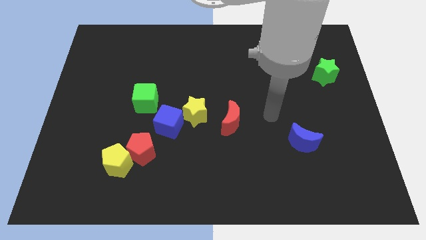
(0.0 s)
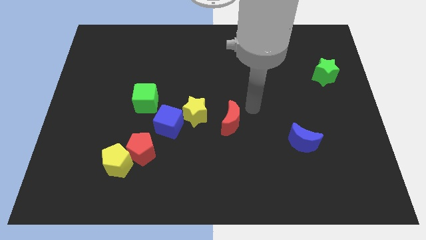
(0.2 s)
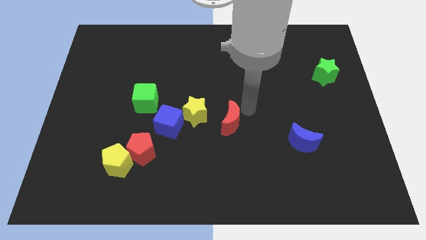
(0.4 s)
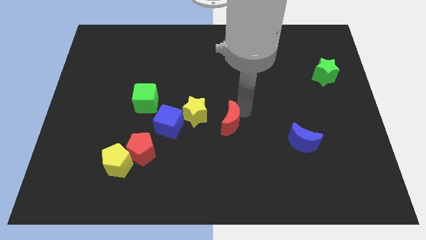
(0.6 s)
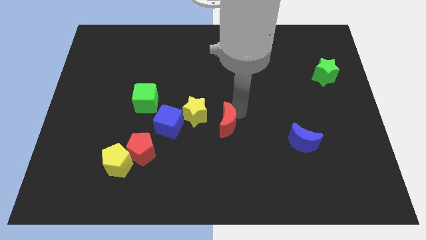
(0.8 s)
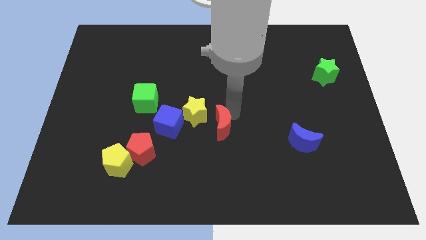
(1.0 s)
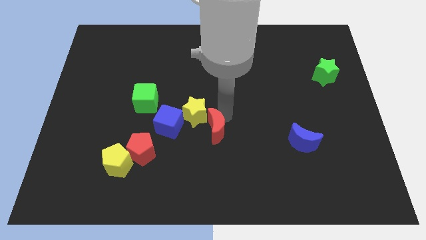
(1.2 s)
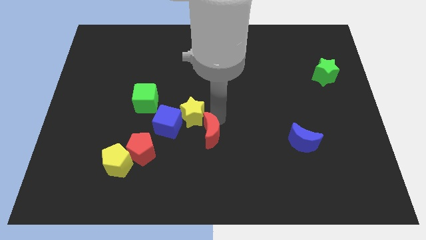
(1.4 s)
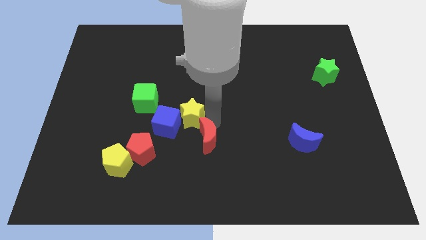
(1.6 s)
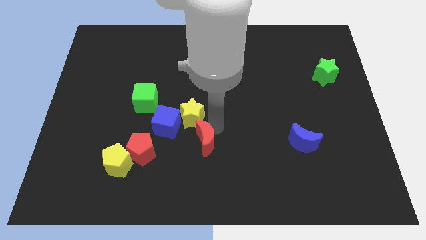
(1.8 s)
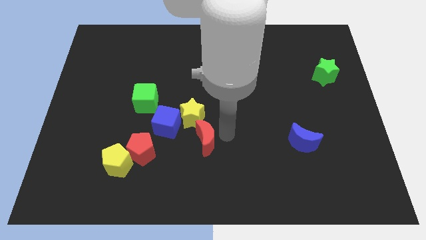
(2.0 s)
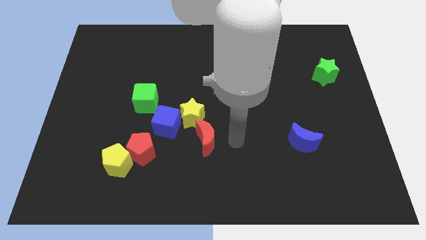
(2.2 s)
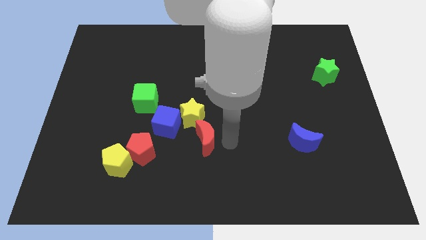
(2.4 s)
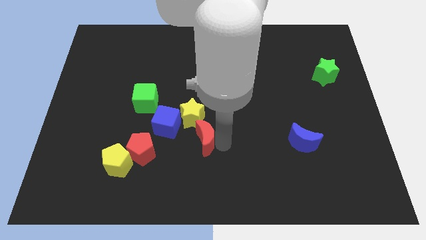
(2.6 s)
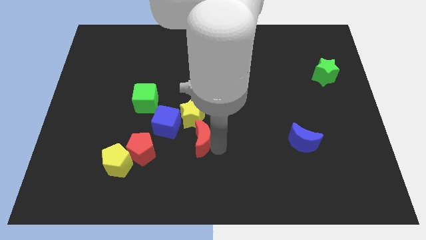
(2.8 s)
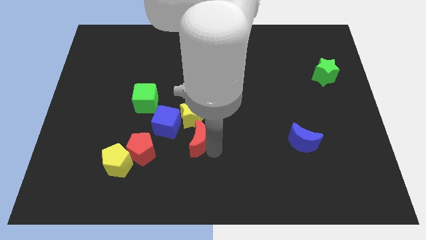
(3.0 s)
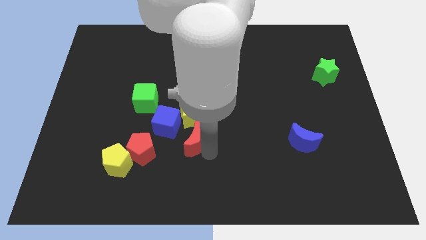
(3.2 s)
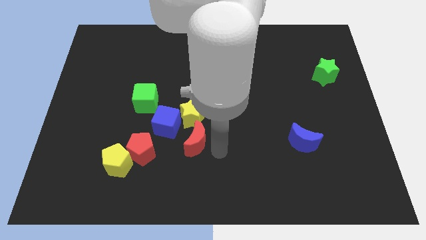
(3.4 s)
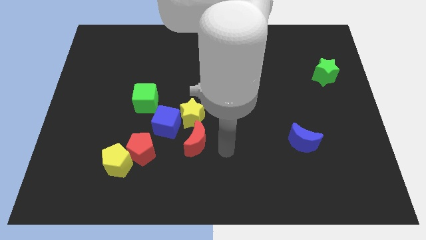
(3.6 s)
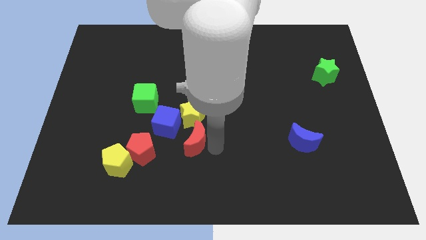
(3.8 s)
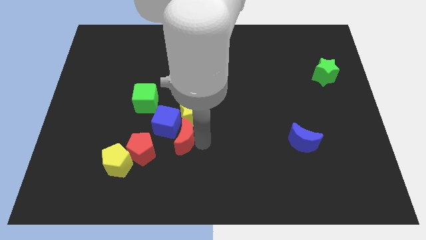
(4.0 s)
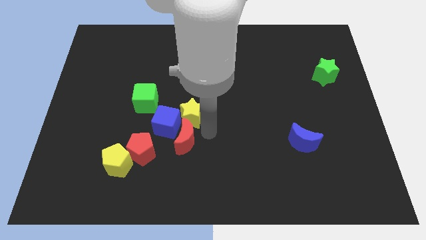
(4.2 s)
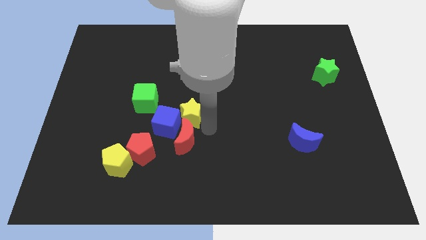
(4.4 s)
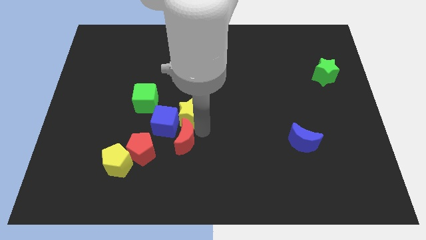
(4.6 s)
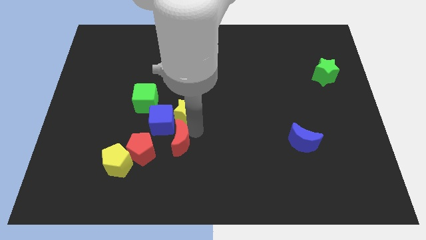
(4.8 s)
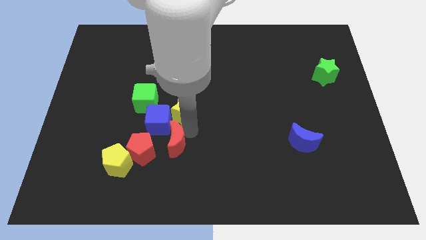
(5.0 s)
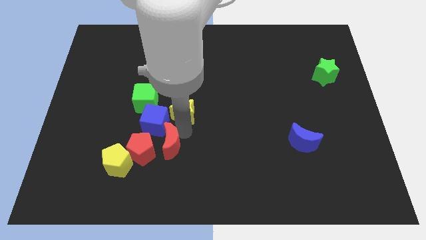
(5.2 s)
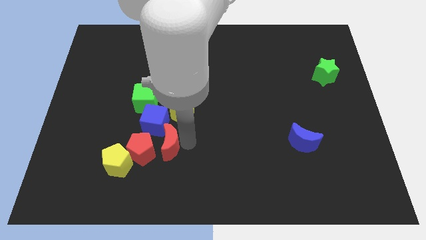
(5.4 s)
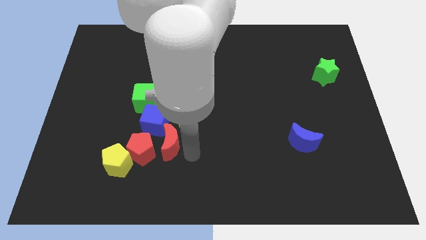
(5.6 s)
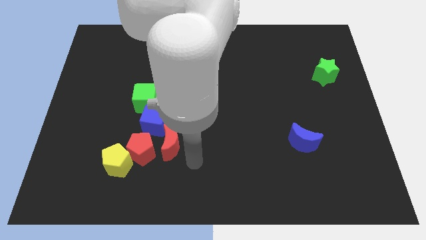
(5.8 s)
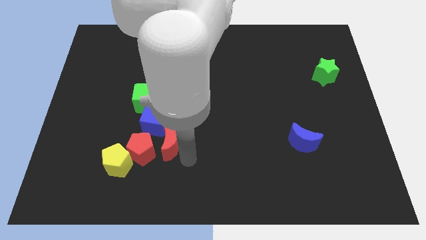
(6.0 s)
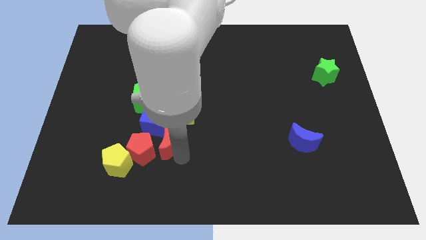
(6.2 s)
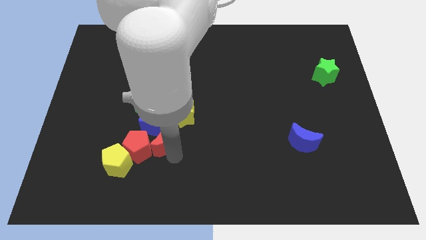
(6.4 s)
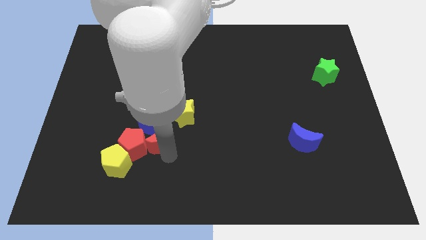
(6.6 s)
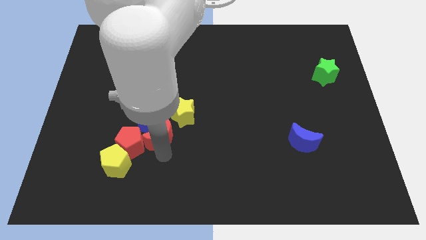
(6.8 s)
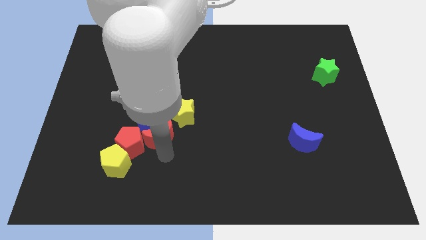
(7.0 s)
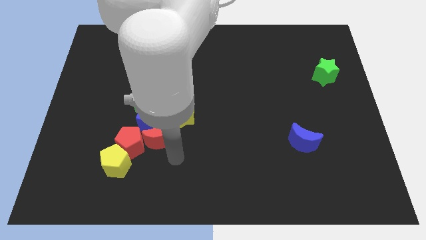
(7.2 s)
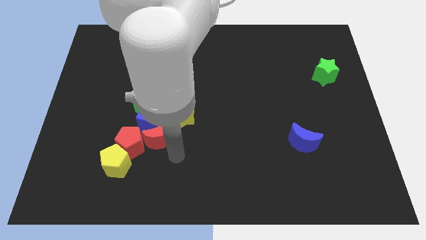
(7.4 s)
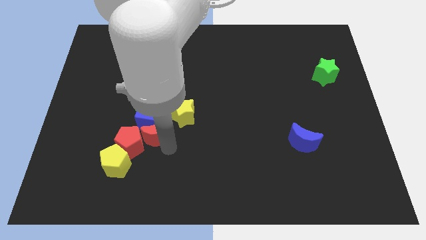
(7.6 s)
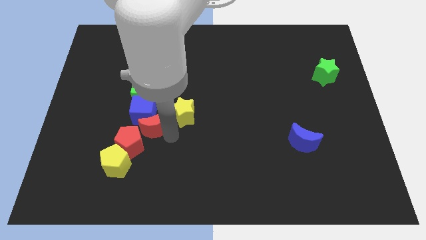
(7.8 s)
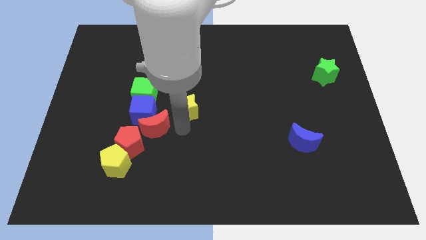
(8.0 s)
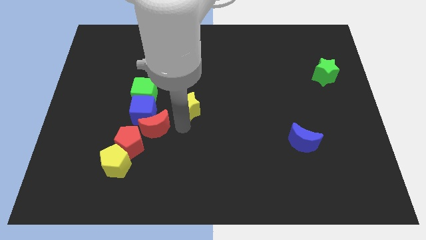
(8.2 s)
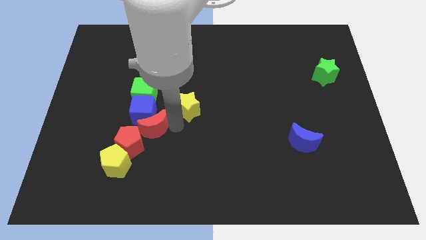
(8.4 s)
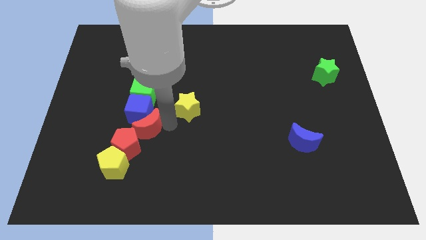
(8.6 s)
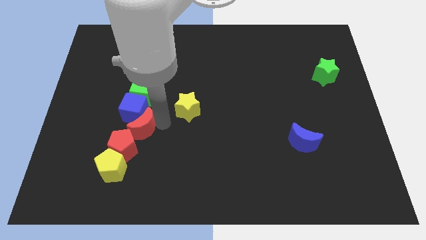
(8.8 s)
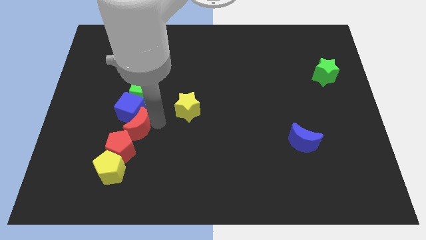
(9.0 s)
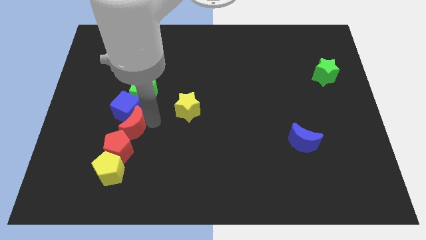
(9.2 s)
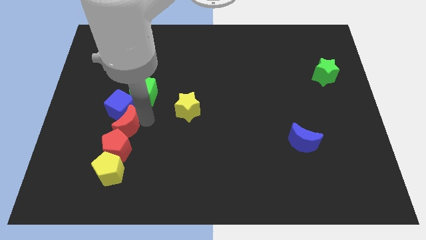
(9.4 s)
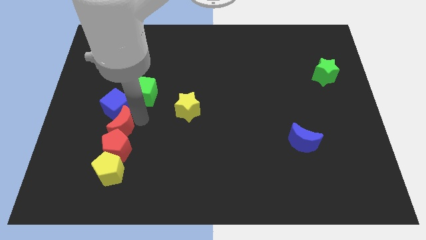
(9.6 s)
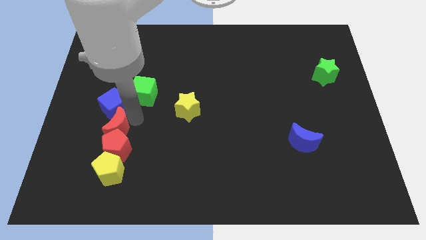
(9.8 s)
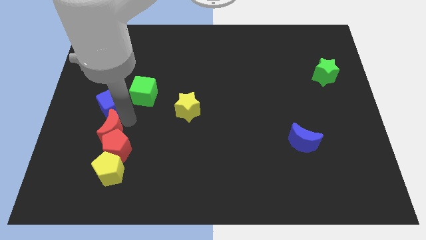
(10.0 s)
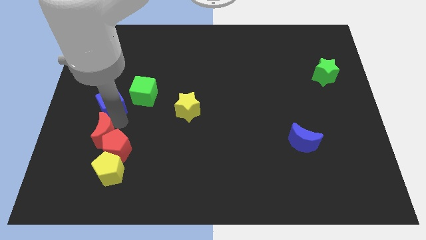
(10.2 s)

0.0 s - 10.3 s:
push the red moon left of the red pentagon

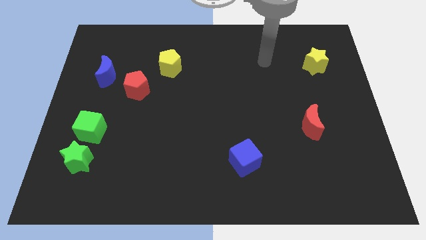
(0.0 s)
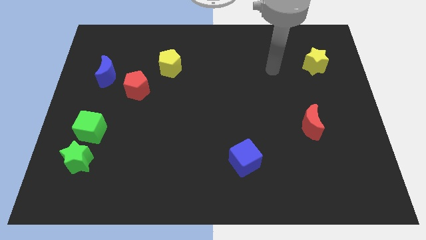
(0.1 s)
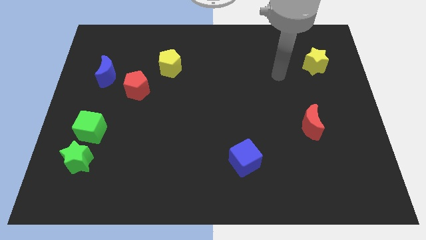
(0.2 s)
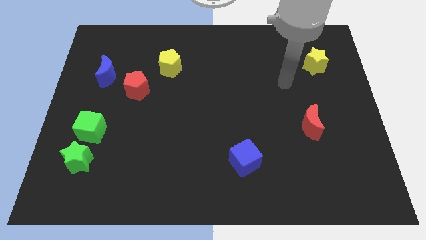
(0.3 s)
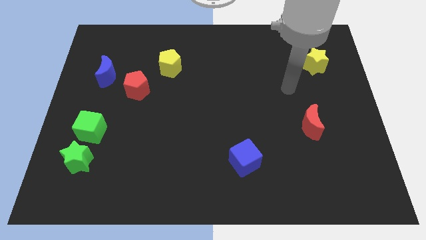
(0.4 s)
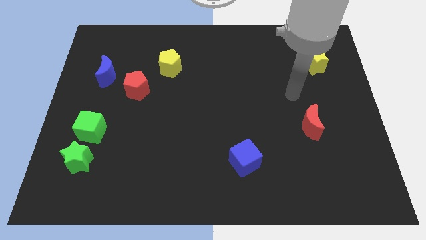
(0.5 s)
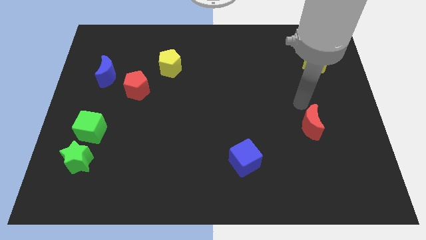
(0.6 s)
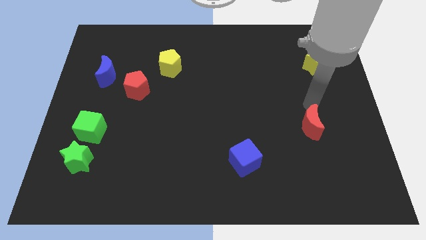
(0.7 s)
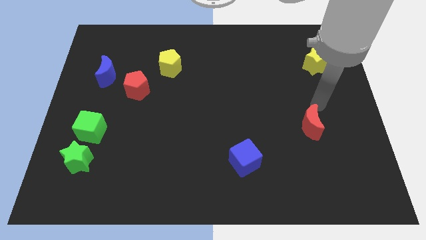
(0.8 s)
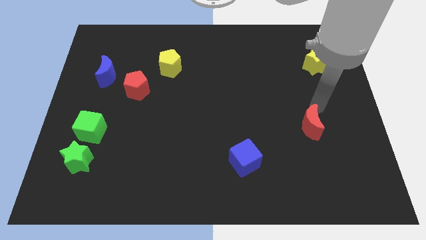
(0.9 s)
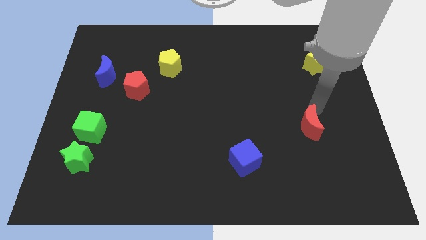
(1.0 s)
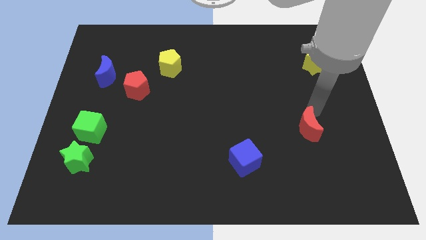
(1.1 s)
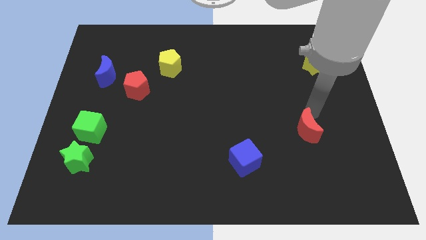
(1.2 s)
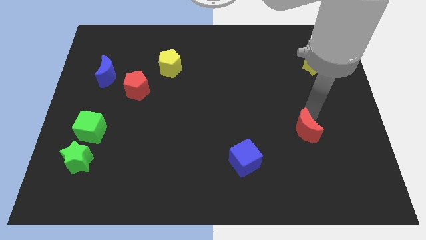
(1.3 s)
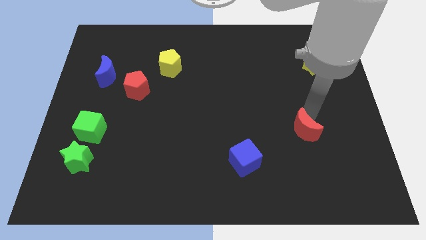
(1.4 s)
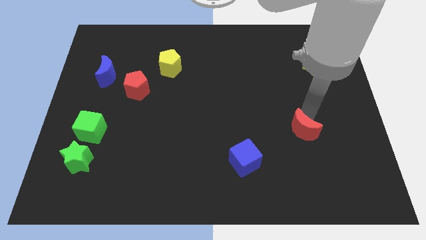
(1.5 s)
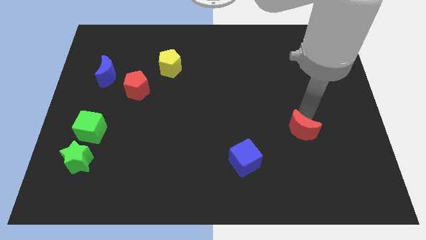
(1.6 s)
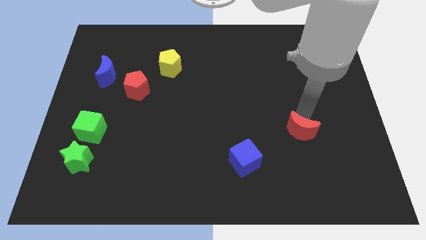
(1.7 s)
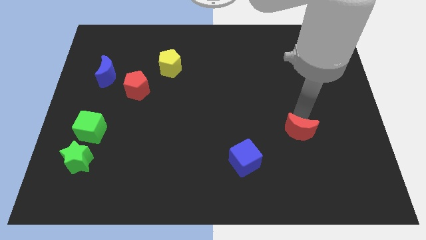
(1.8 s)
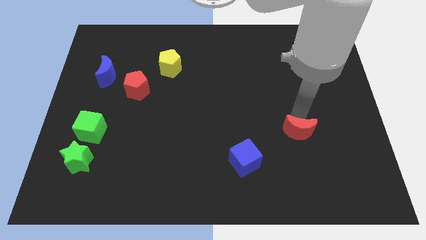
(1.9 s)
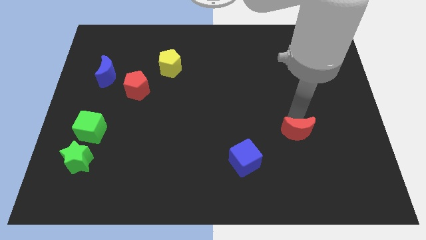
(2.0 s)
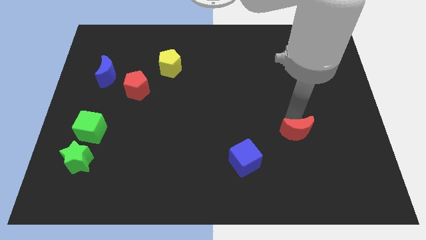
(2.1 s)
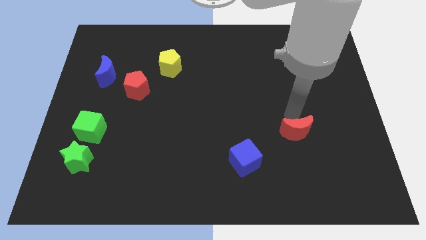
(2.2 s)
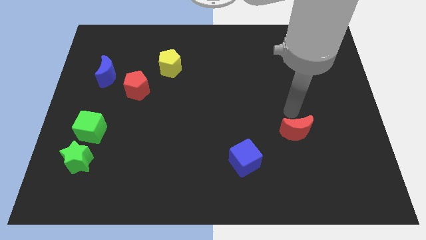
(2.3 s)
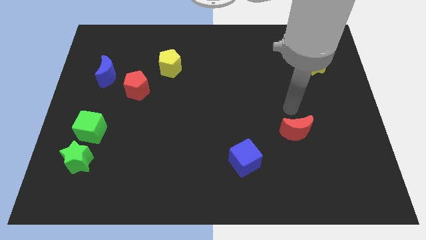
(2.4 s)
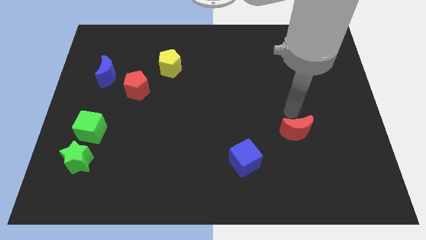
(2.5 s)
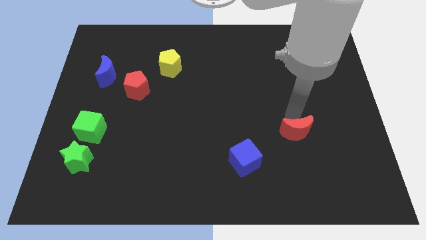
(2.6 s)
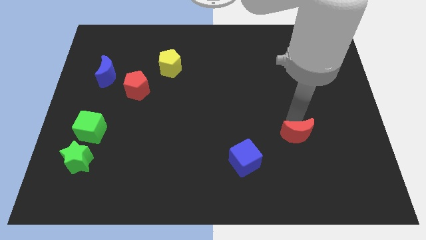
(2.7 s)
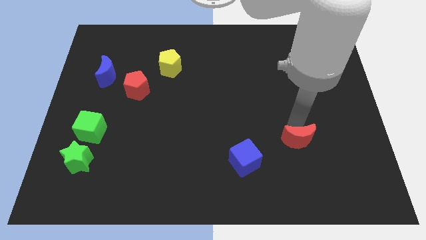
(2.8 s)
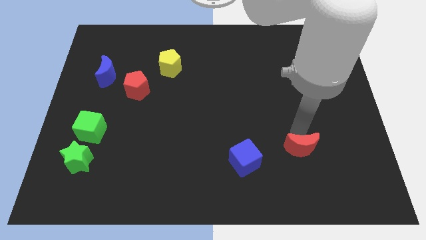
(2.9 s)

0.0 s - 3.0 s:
slide the red moon to the right of the blue cube
